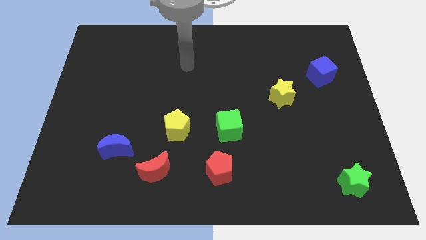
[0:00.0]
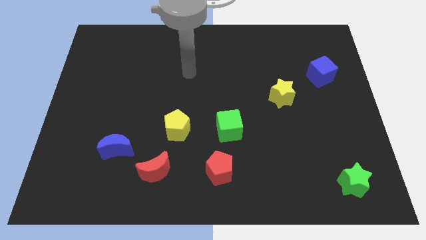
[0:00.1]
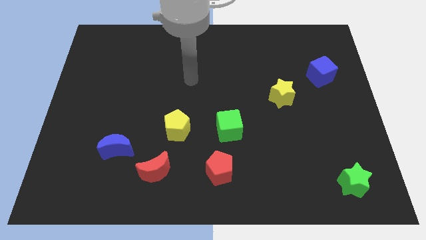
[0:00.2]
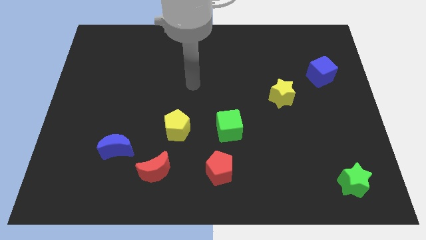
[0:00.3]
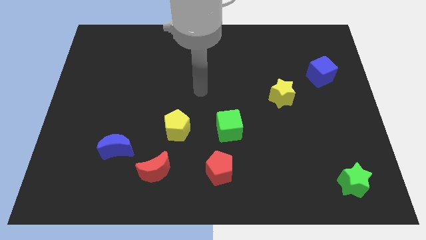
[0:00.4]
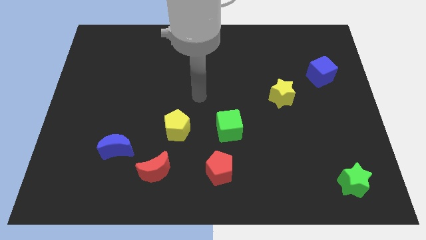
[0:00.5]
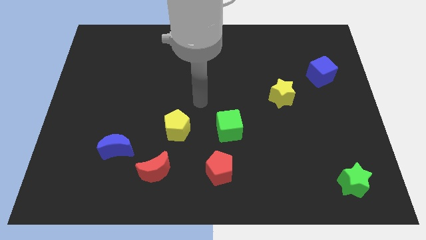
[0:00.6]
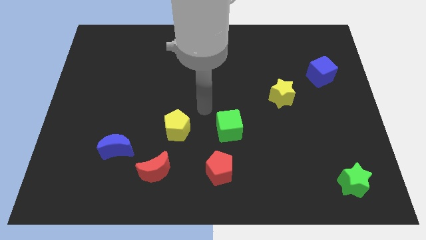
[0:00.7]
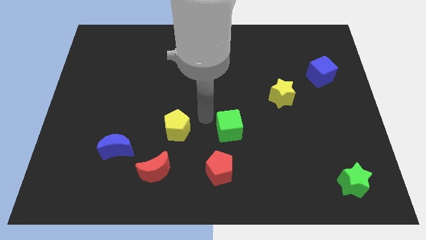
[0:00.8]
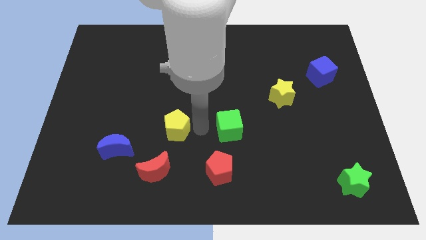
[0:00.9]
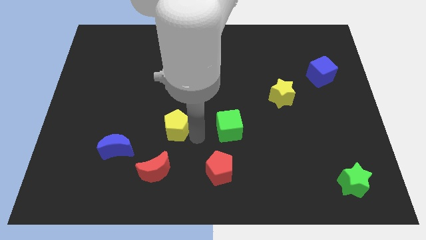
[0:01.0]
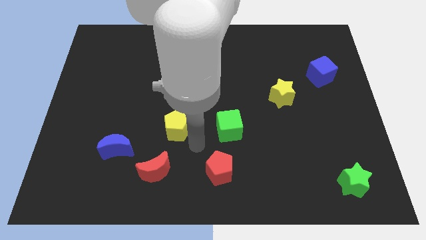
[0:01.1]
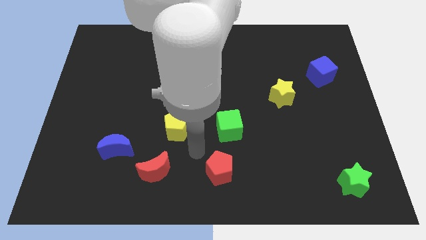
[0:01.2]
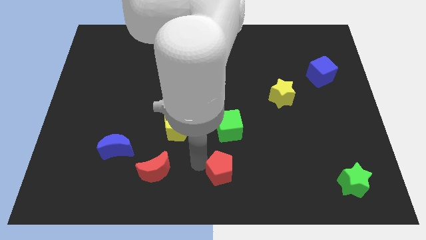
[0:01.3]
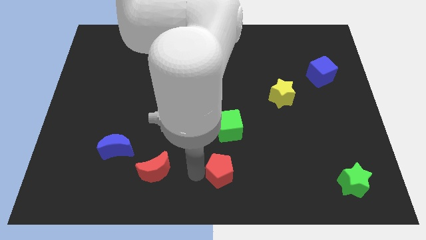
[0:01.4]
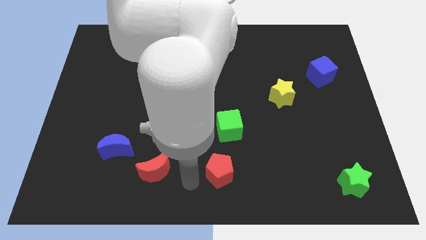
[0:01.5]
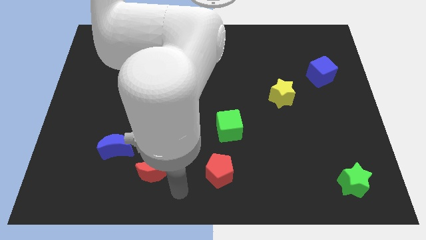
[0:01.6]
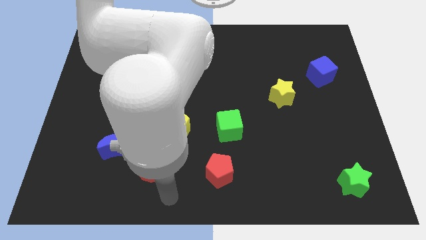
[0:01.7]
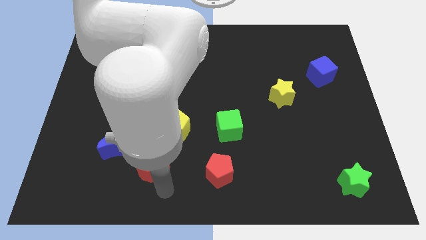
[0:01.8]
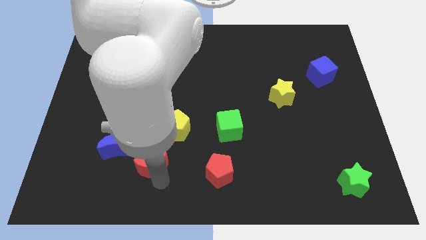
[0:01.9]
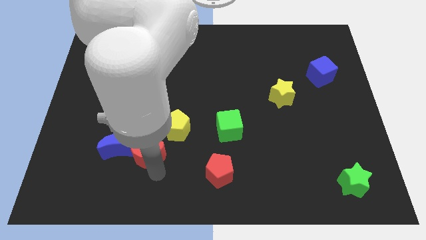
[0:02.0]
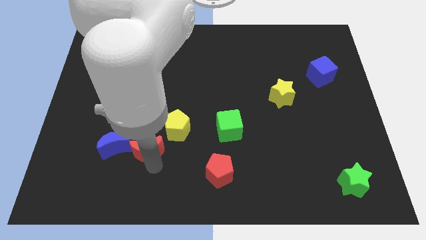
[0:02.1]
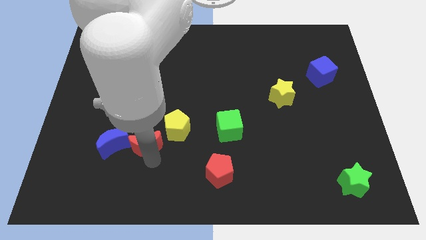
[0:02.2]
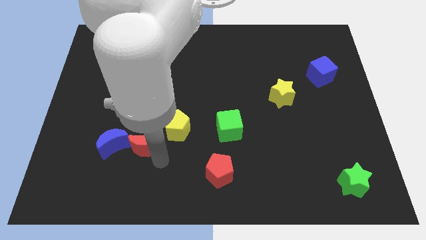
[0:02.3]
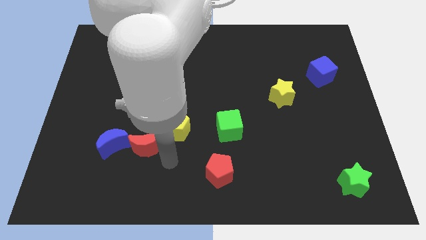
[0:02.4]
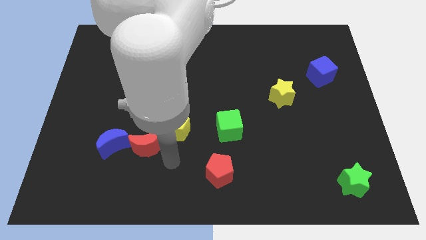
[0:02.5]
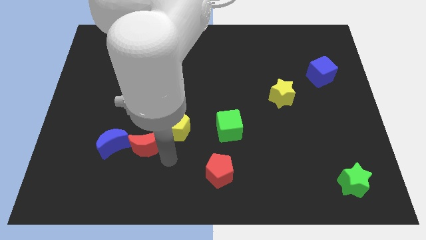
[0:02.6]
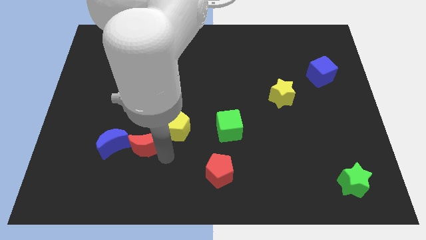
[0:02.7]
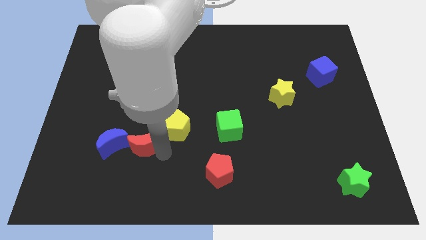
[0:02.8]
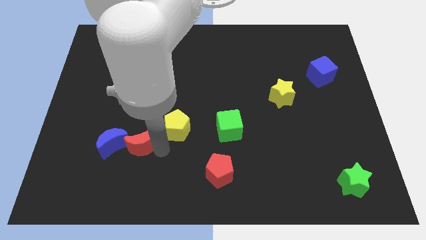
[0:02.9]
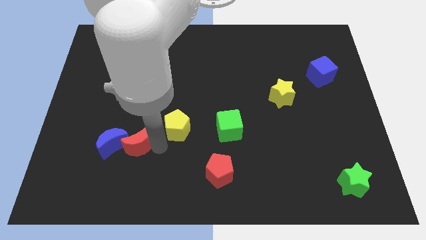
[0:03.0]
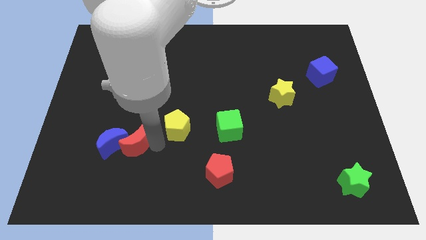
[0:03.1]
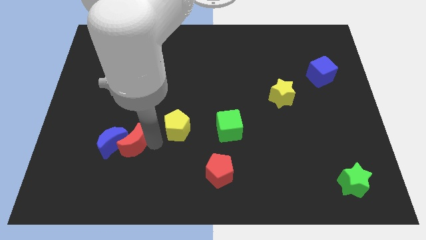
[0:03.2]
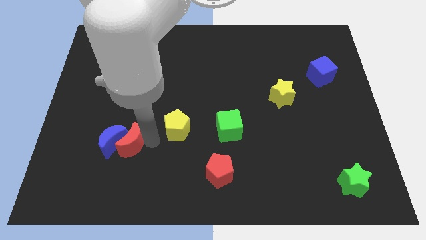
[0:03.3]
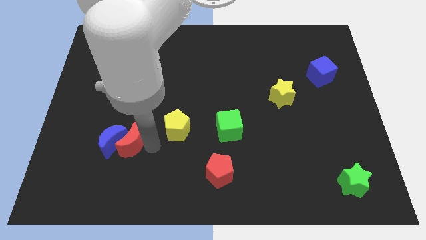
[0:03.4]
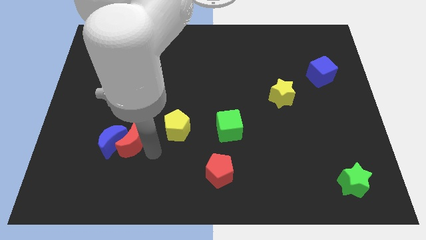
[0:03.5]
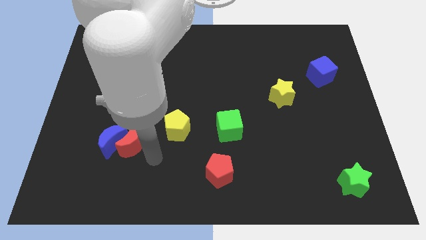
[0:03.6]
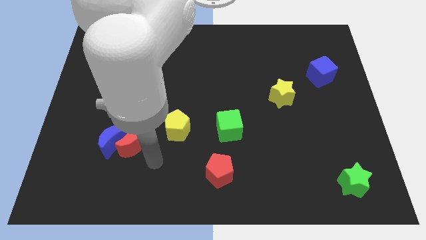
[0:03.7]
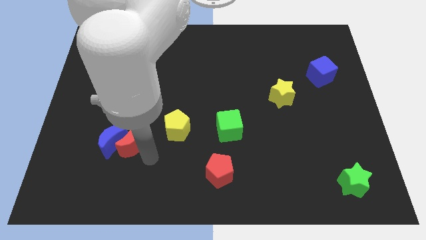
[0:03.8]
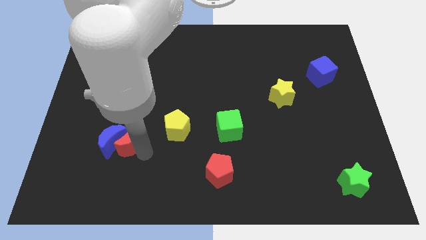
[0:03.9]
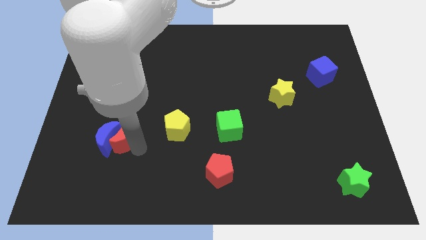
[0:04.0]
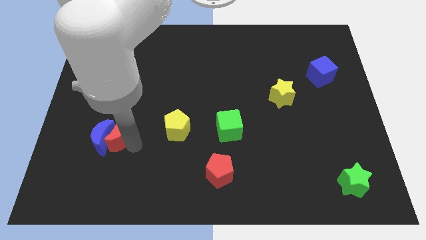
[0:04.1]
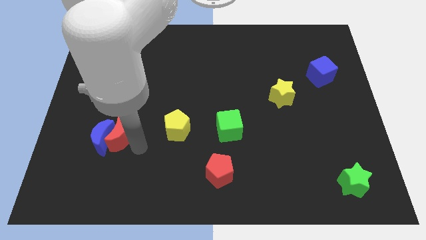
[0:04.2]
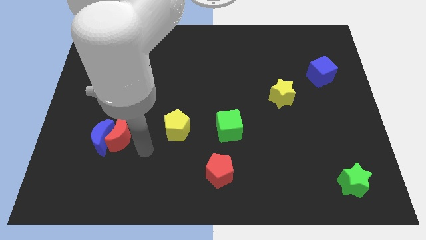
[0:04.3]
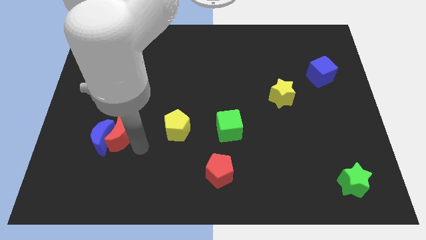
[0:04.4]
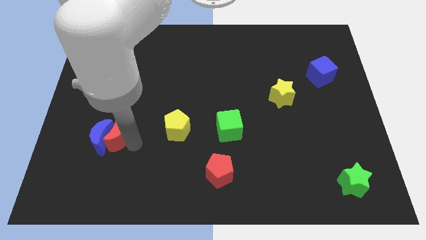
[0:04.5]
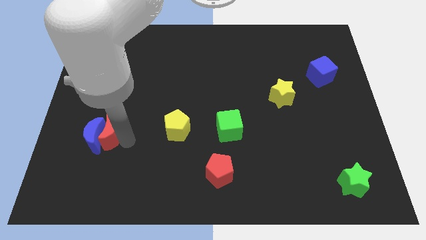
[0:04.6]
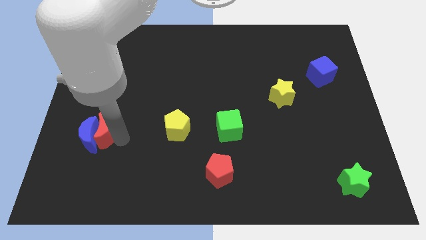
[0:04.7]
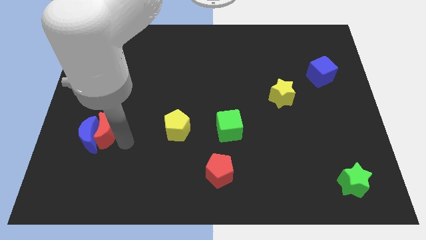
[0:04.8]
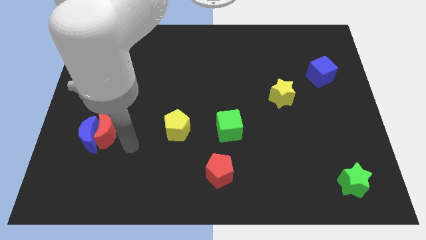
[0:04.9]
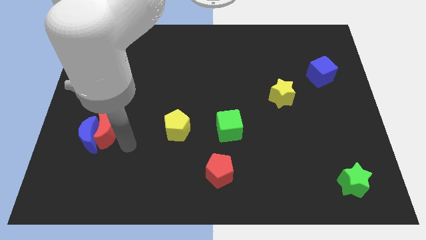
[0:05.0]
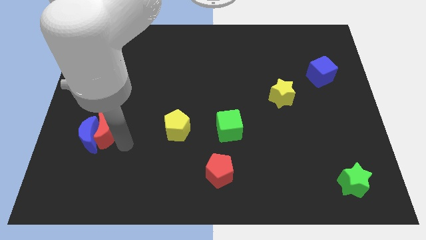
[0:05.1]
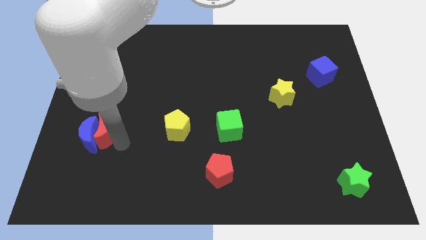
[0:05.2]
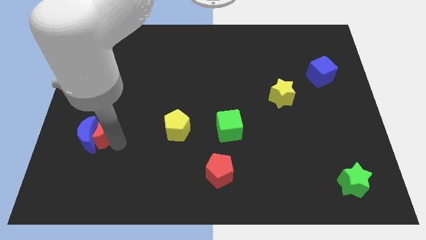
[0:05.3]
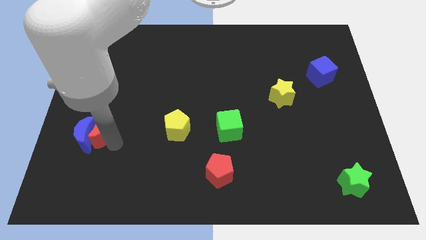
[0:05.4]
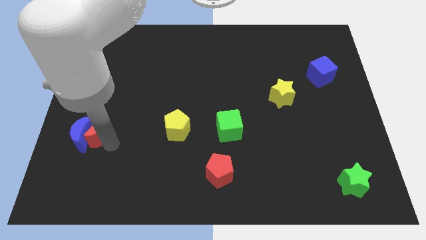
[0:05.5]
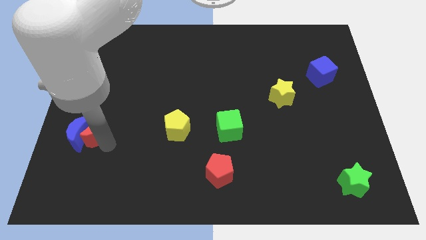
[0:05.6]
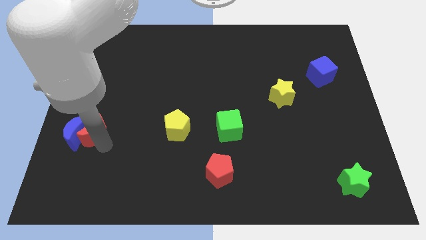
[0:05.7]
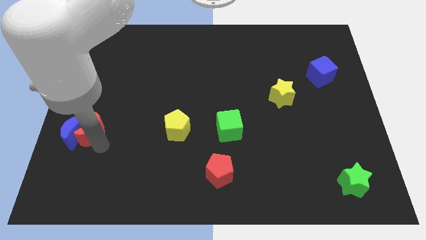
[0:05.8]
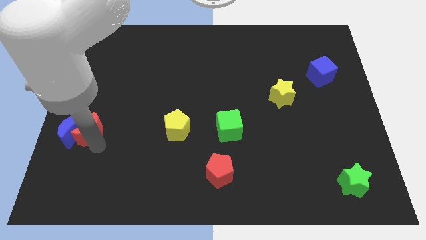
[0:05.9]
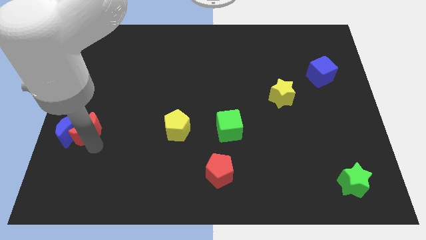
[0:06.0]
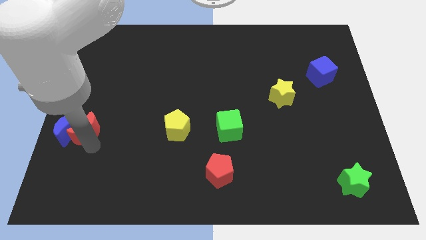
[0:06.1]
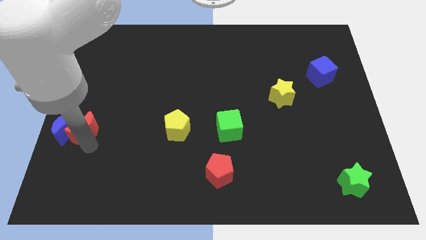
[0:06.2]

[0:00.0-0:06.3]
slide the red moon to the left side
